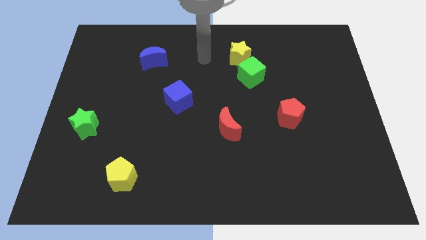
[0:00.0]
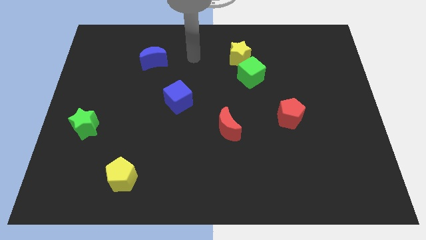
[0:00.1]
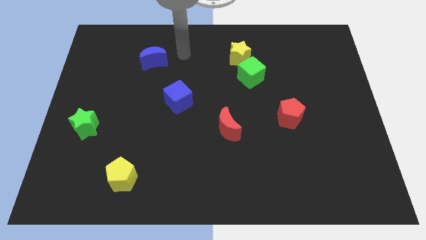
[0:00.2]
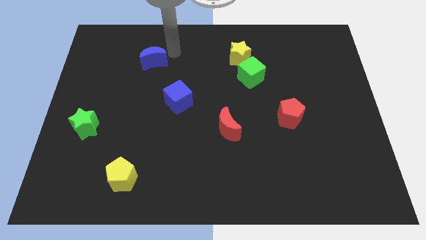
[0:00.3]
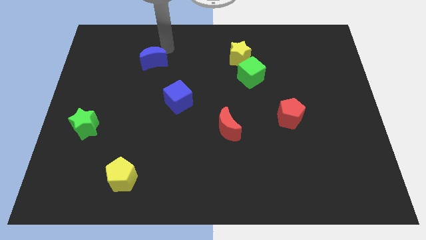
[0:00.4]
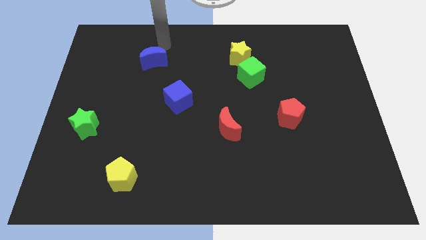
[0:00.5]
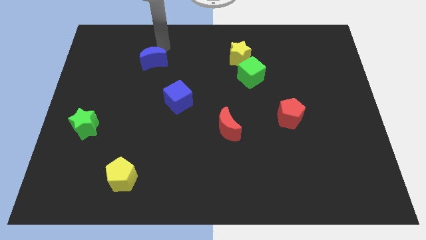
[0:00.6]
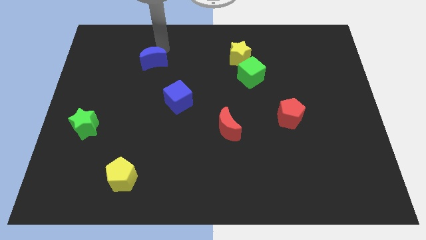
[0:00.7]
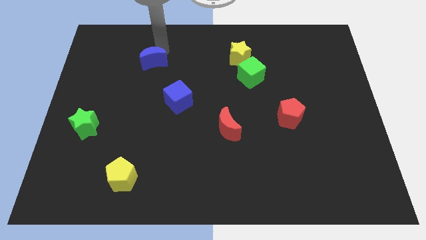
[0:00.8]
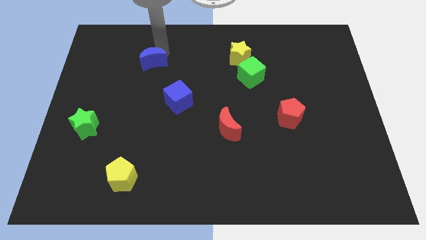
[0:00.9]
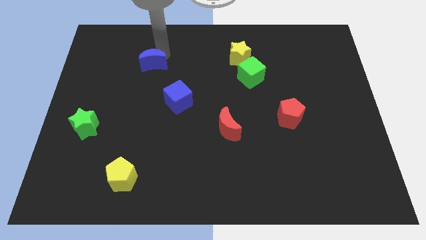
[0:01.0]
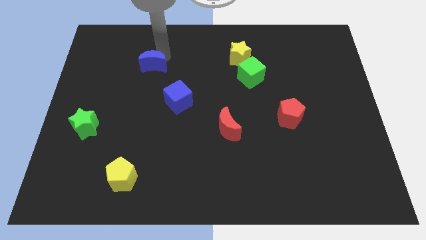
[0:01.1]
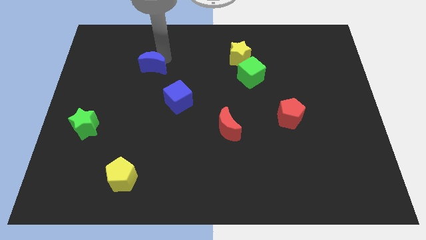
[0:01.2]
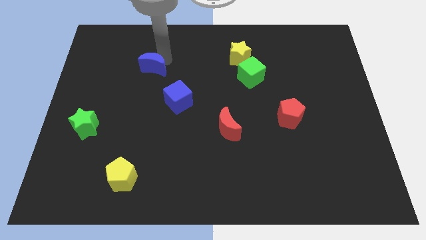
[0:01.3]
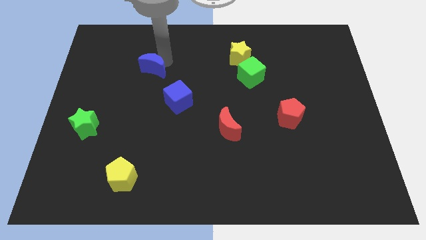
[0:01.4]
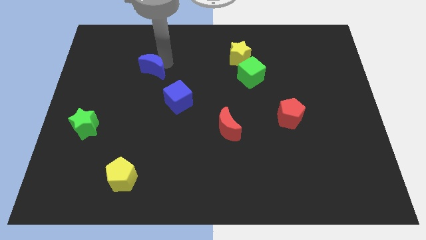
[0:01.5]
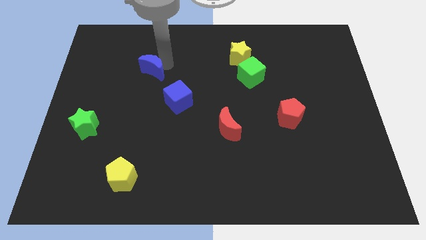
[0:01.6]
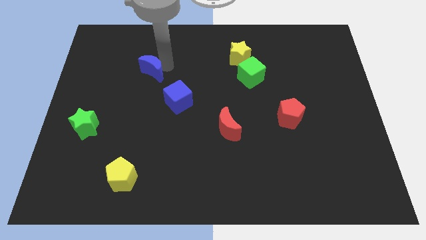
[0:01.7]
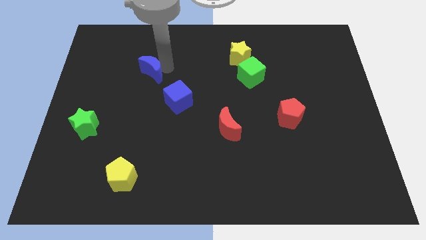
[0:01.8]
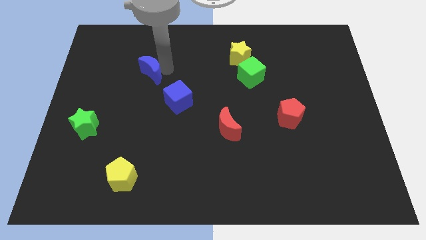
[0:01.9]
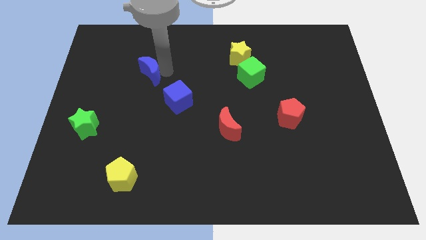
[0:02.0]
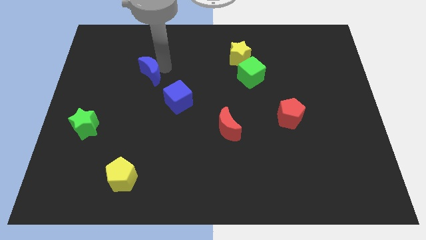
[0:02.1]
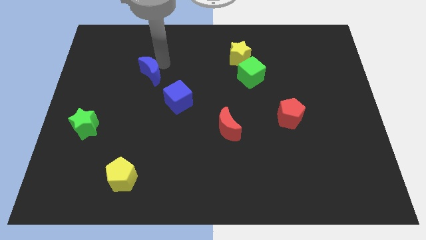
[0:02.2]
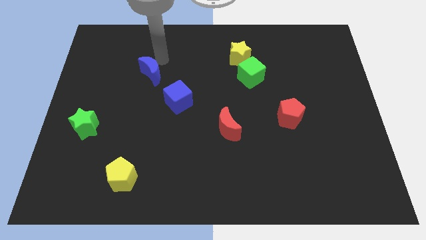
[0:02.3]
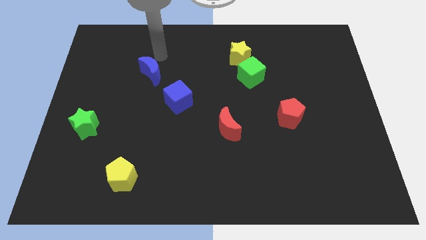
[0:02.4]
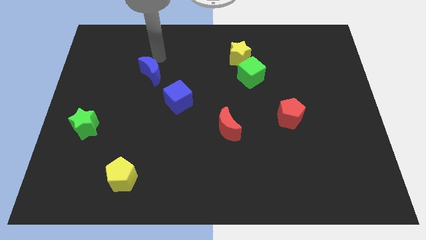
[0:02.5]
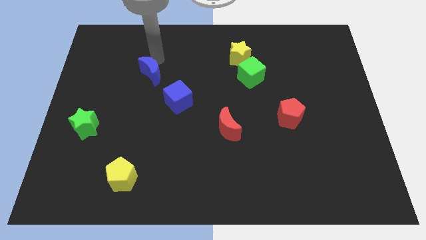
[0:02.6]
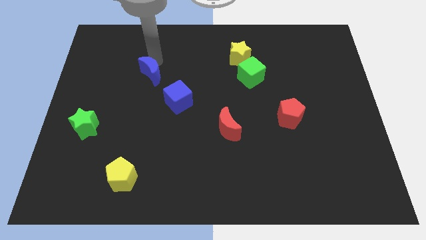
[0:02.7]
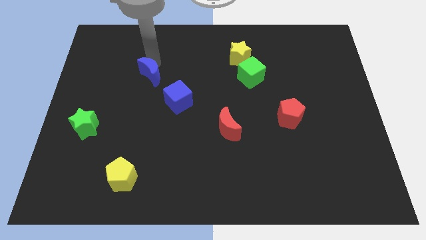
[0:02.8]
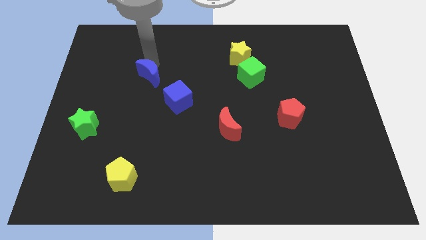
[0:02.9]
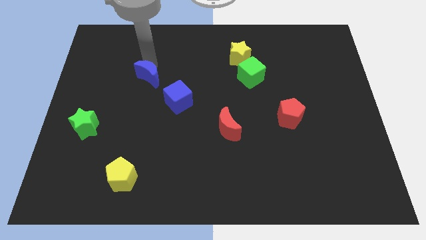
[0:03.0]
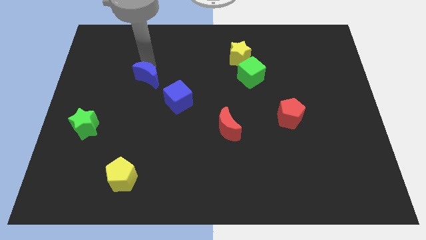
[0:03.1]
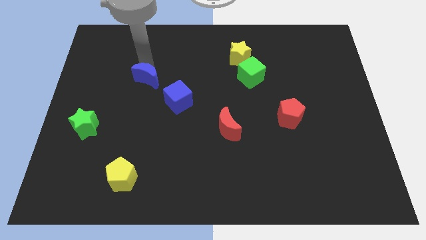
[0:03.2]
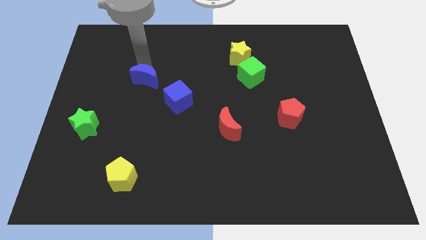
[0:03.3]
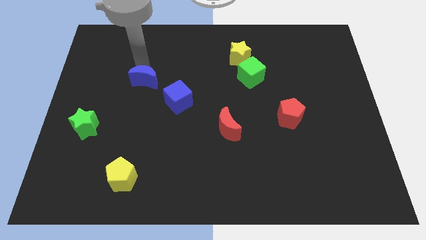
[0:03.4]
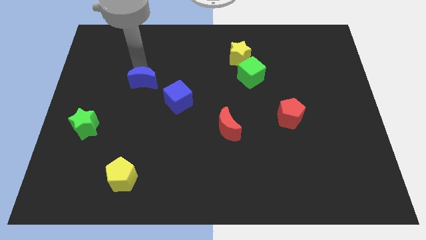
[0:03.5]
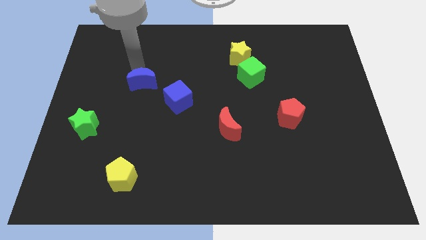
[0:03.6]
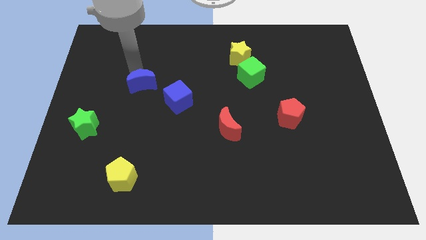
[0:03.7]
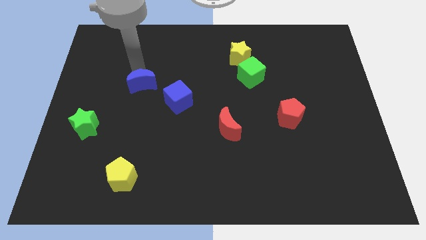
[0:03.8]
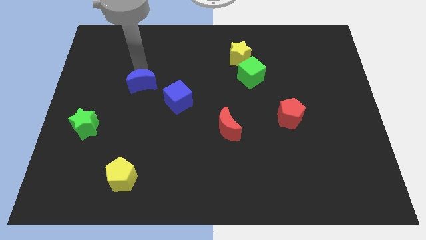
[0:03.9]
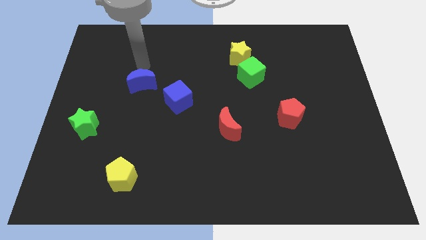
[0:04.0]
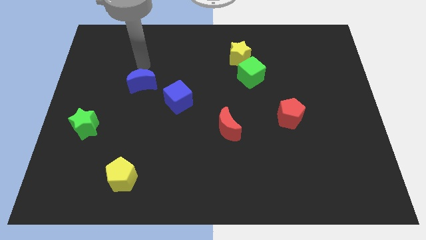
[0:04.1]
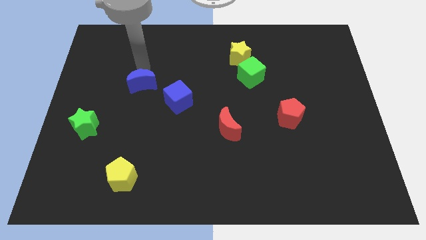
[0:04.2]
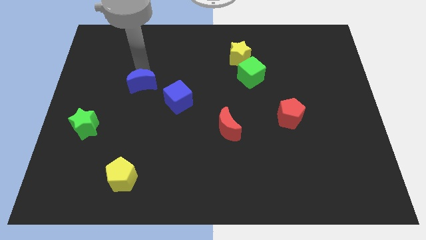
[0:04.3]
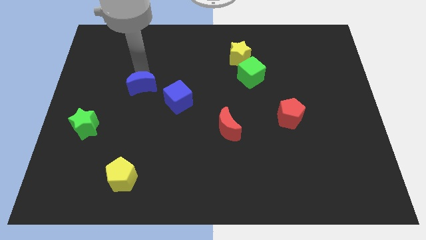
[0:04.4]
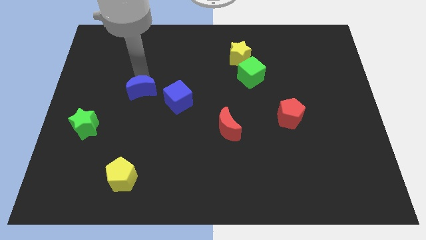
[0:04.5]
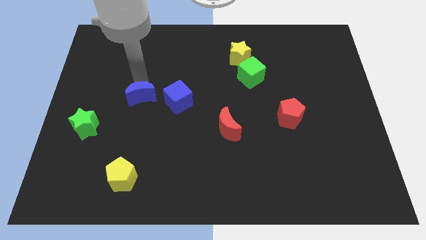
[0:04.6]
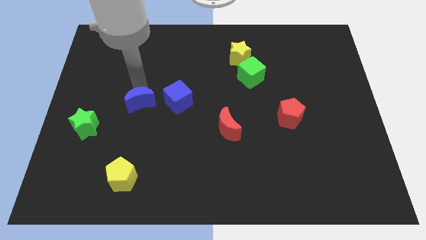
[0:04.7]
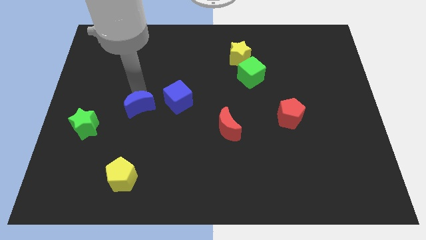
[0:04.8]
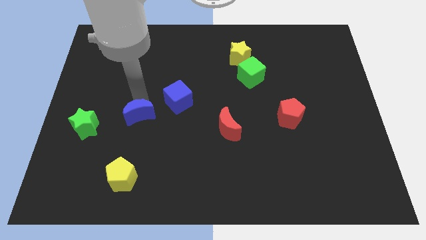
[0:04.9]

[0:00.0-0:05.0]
push the blue moon to the top side of the yellow pentagon

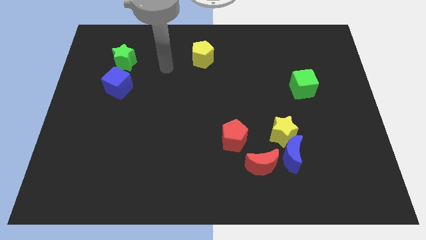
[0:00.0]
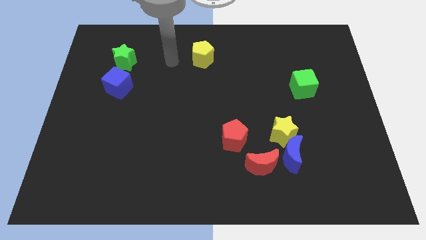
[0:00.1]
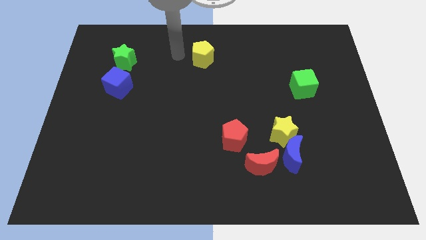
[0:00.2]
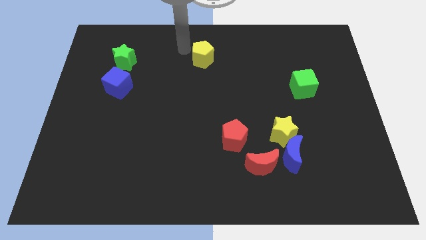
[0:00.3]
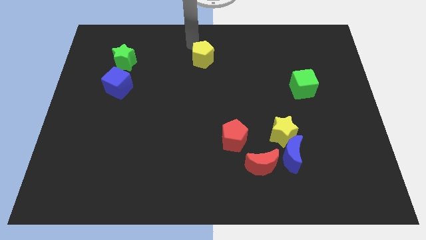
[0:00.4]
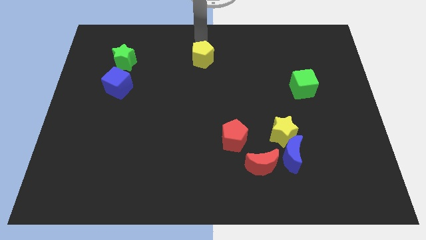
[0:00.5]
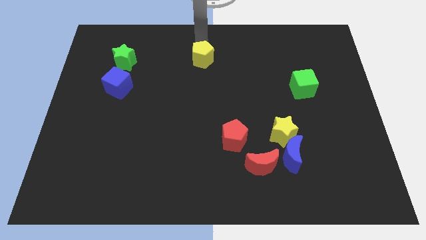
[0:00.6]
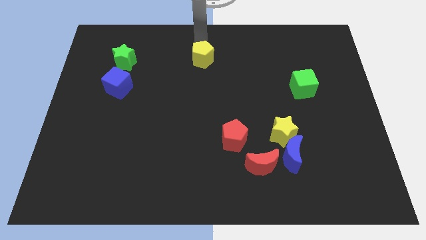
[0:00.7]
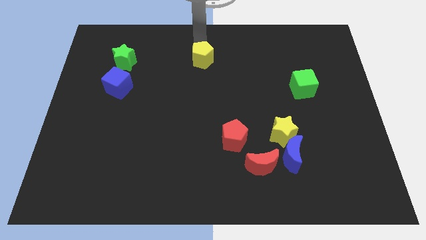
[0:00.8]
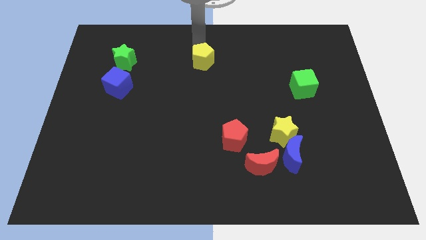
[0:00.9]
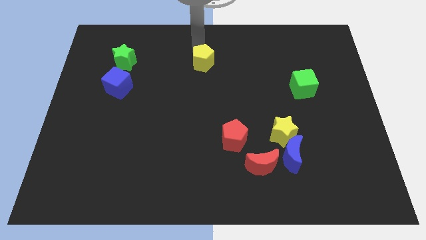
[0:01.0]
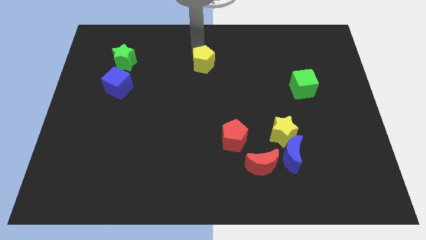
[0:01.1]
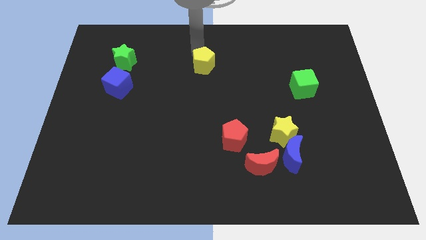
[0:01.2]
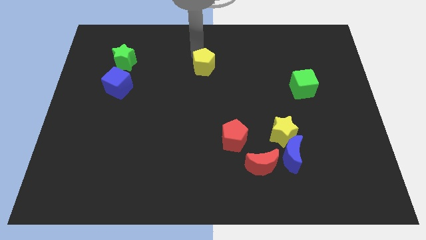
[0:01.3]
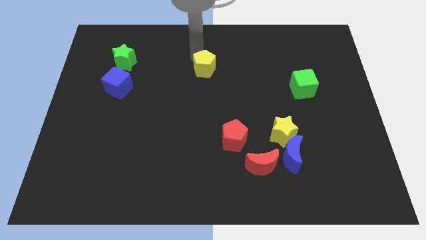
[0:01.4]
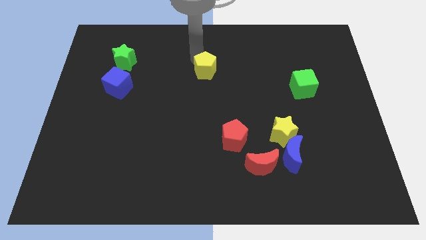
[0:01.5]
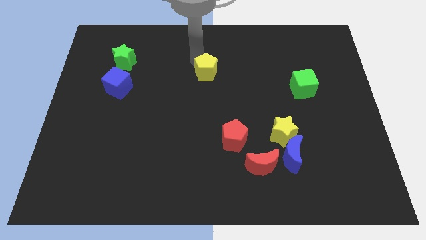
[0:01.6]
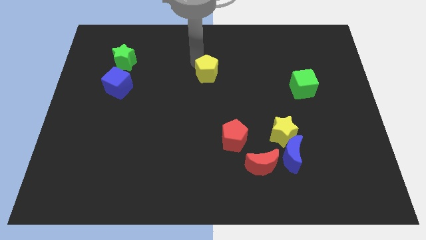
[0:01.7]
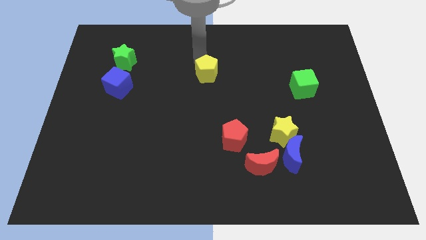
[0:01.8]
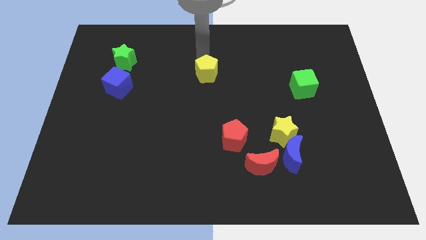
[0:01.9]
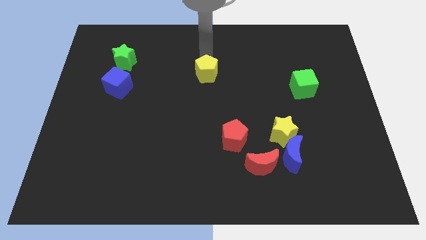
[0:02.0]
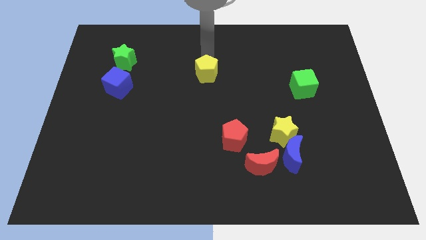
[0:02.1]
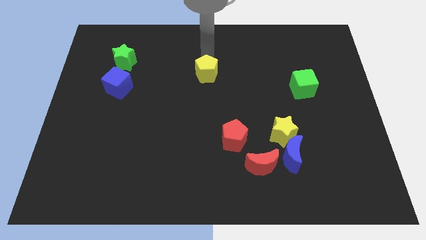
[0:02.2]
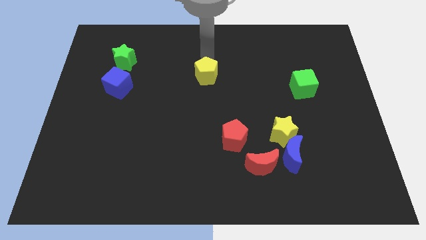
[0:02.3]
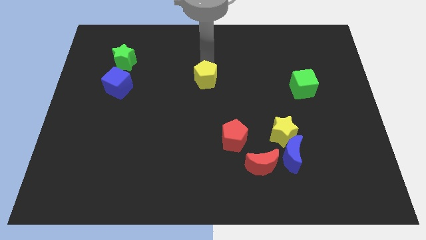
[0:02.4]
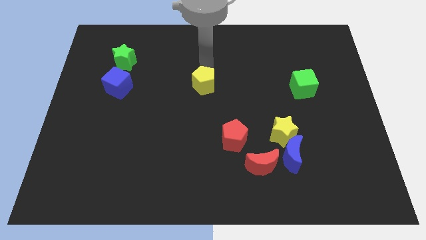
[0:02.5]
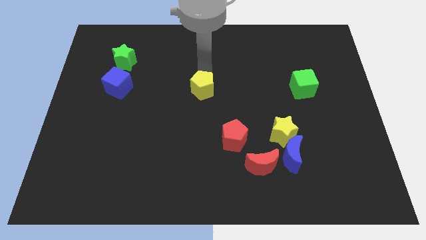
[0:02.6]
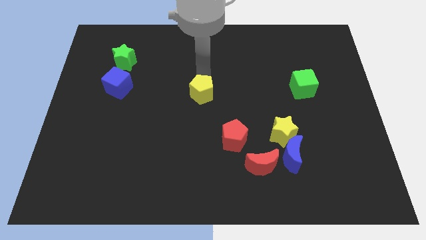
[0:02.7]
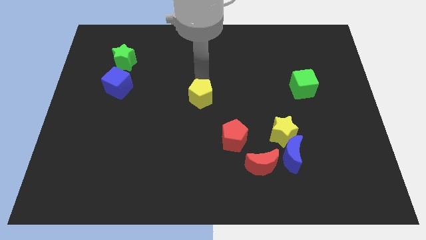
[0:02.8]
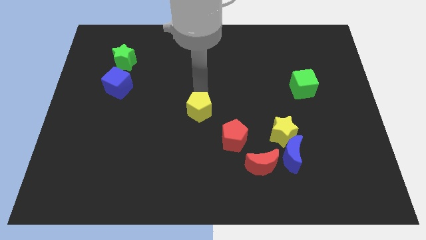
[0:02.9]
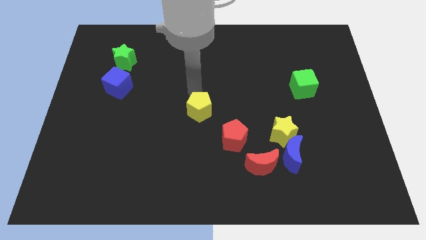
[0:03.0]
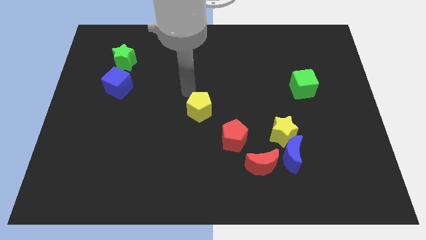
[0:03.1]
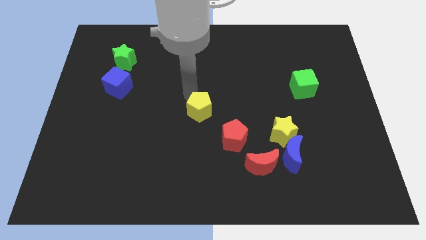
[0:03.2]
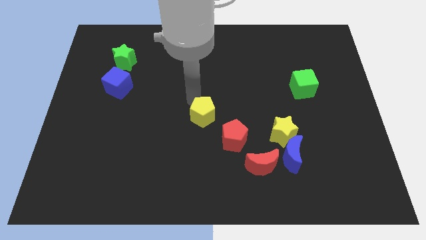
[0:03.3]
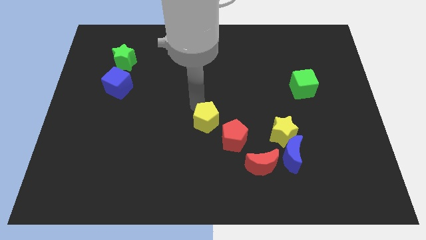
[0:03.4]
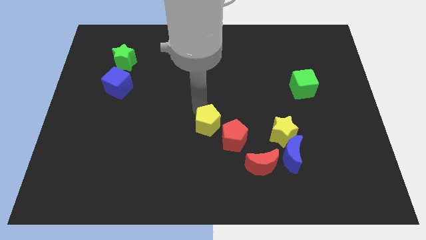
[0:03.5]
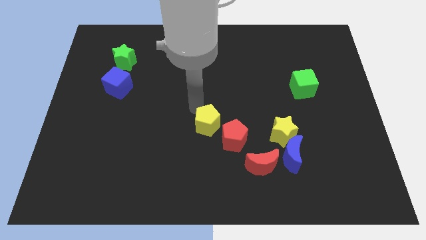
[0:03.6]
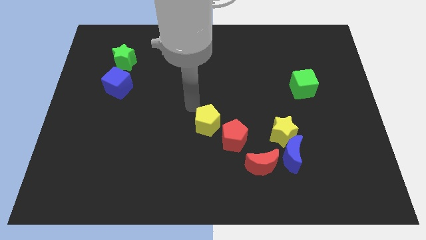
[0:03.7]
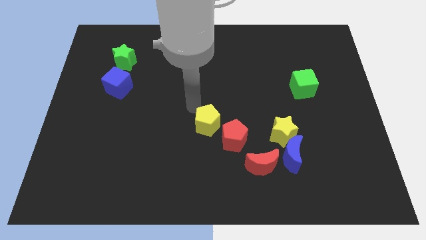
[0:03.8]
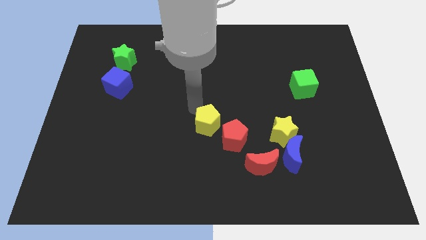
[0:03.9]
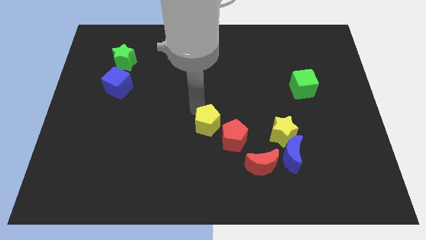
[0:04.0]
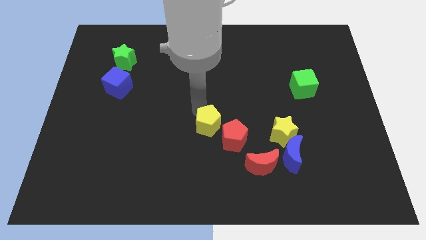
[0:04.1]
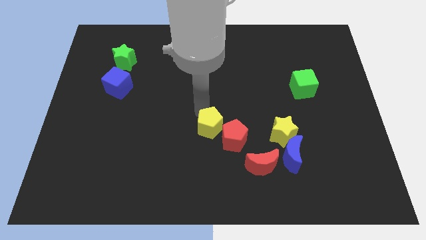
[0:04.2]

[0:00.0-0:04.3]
push the yellow pentagon to the left side of the yellow star
